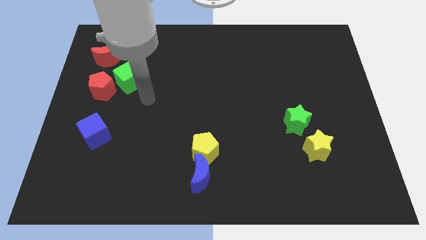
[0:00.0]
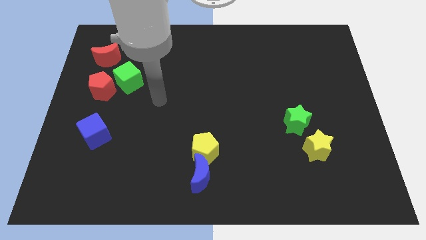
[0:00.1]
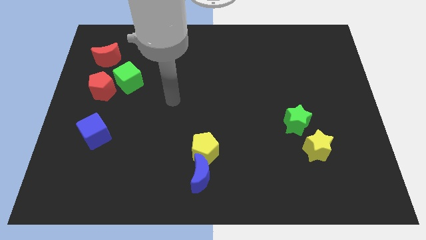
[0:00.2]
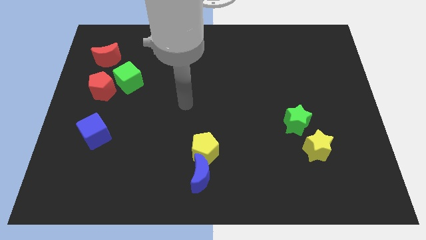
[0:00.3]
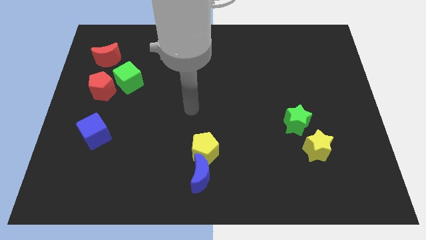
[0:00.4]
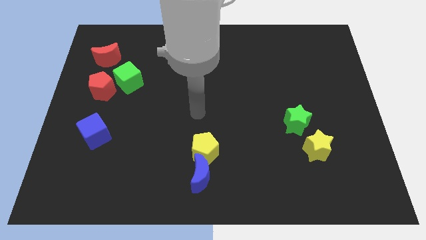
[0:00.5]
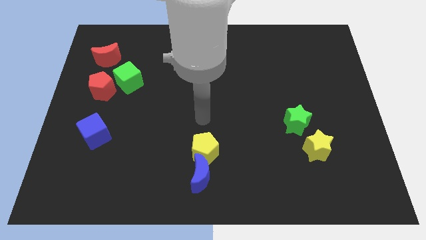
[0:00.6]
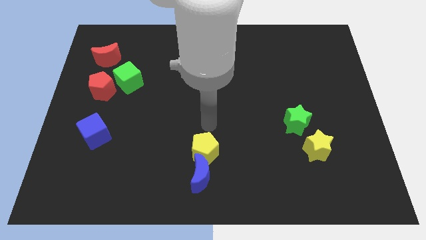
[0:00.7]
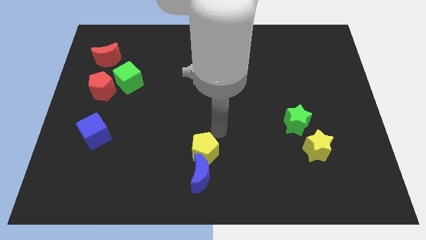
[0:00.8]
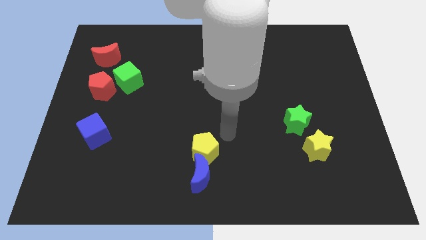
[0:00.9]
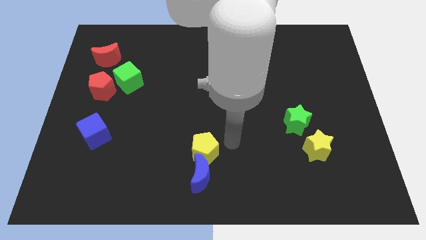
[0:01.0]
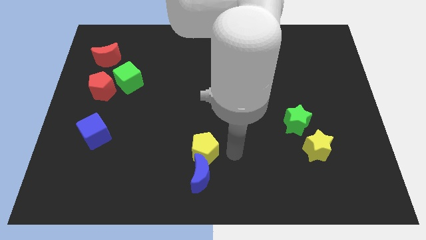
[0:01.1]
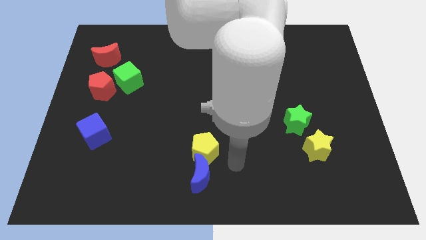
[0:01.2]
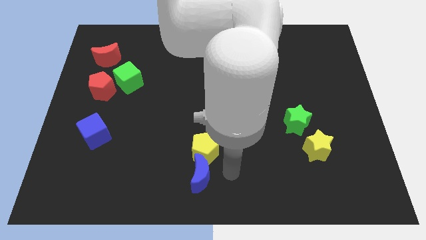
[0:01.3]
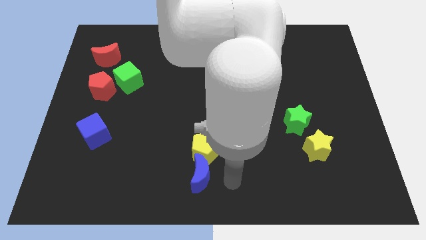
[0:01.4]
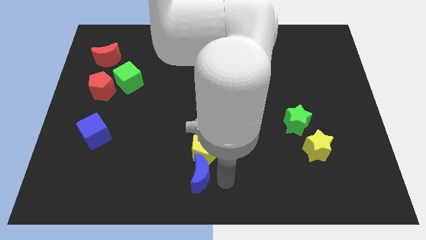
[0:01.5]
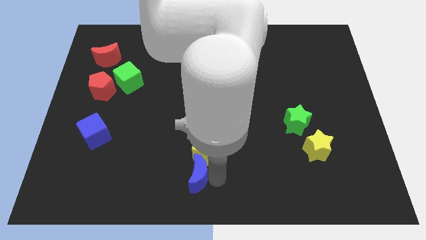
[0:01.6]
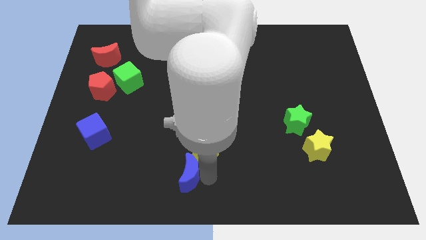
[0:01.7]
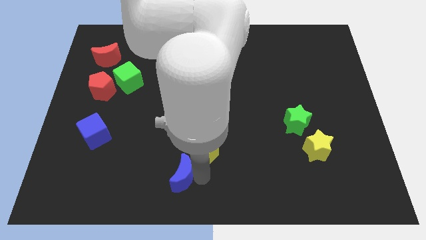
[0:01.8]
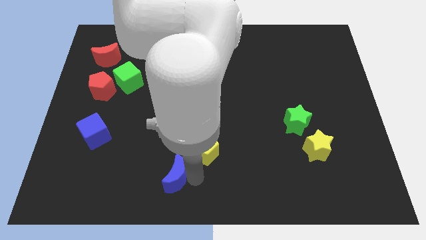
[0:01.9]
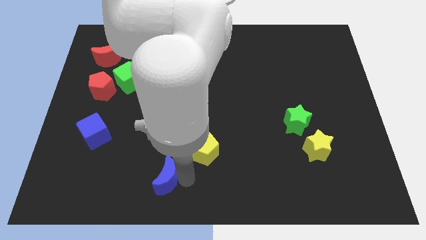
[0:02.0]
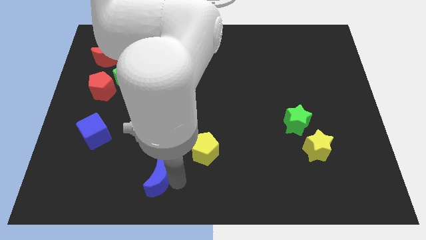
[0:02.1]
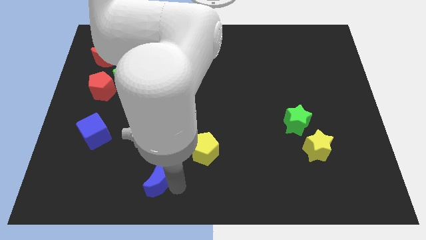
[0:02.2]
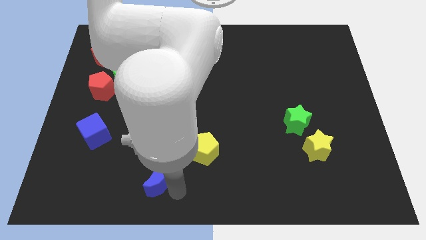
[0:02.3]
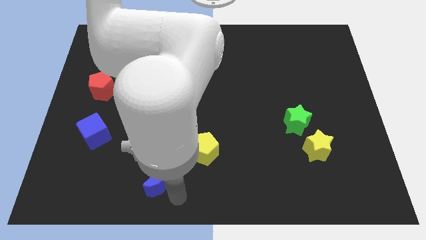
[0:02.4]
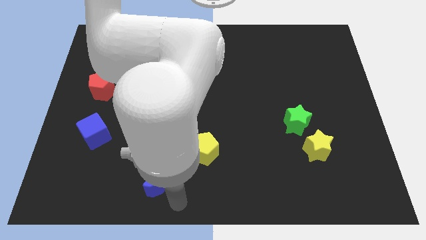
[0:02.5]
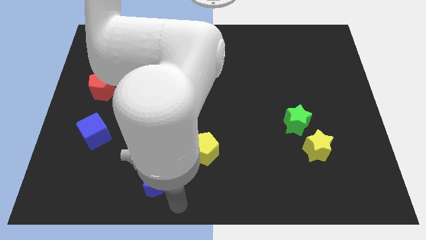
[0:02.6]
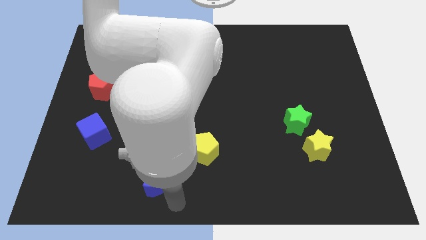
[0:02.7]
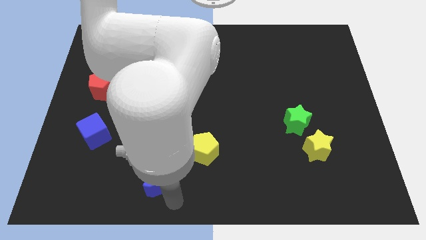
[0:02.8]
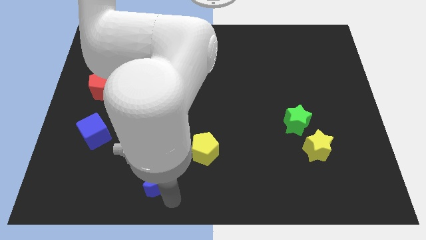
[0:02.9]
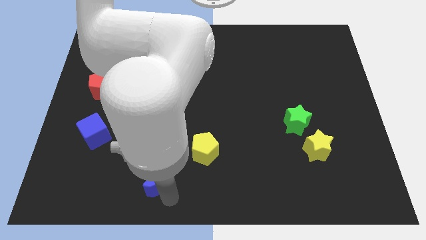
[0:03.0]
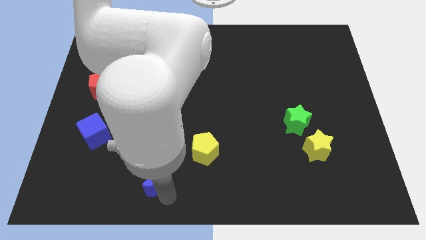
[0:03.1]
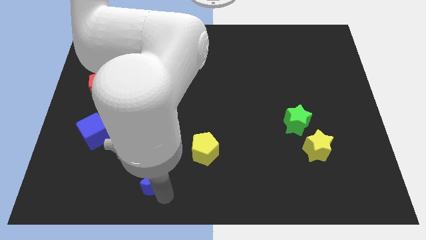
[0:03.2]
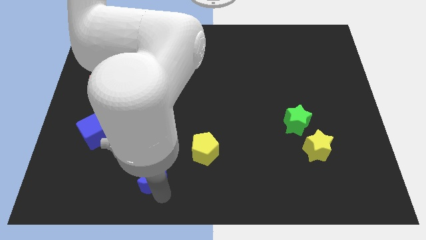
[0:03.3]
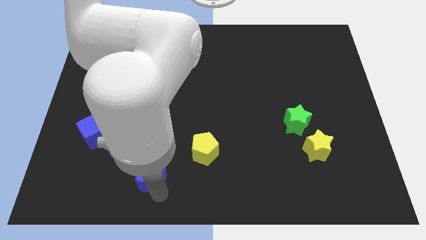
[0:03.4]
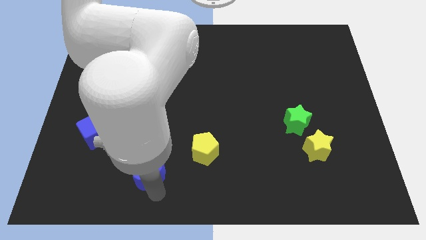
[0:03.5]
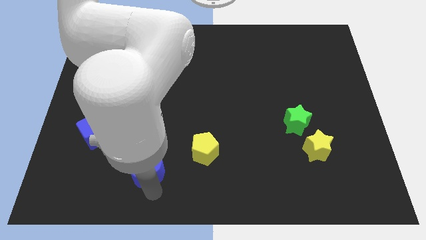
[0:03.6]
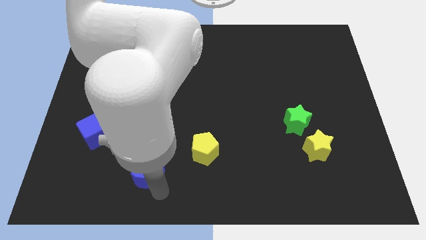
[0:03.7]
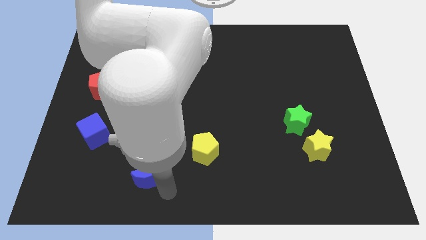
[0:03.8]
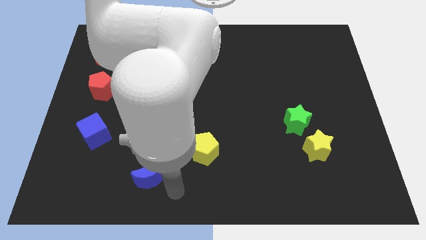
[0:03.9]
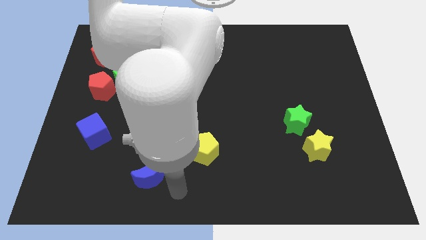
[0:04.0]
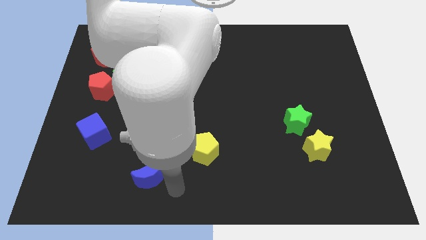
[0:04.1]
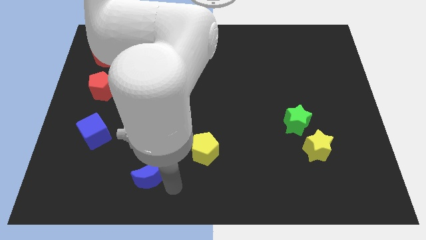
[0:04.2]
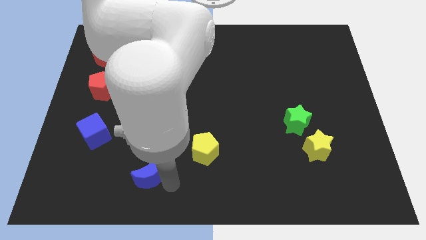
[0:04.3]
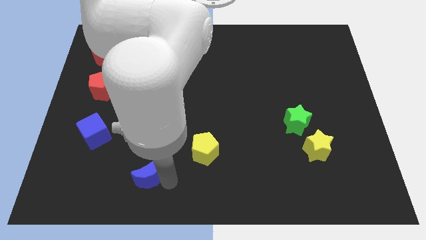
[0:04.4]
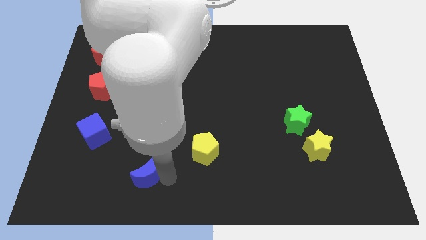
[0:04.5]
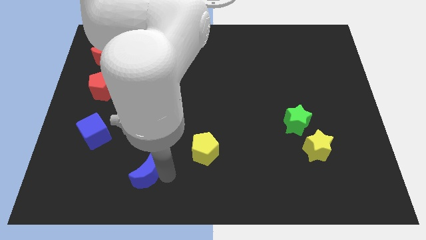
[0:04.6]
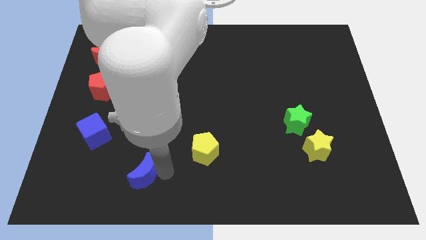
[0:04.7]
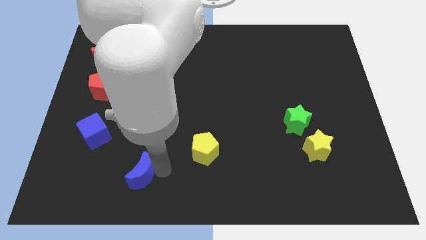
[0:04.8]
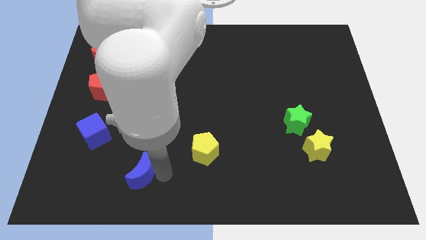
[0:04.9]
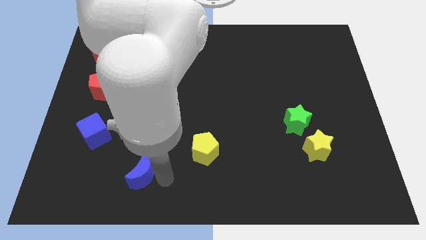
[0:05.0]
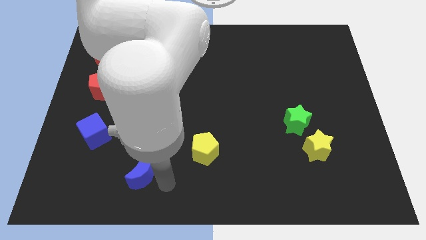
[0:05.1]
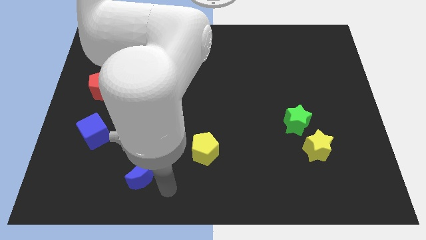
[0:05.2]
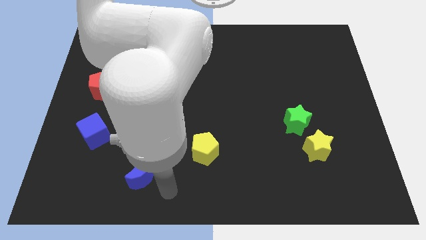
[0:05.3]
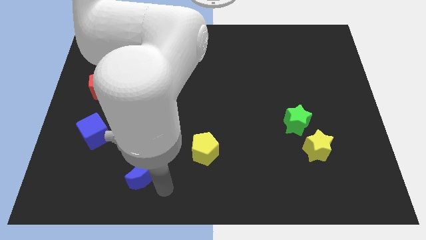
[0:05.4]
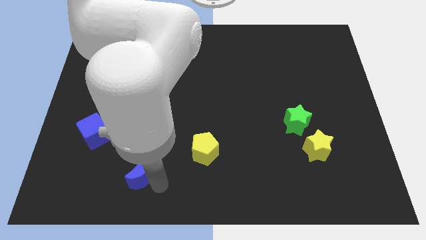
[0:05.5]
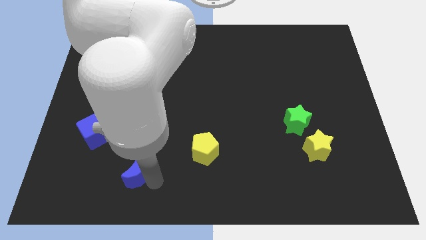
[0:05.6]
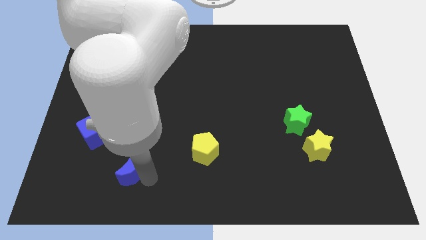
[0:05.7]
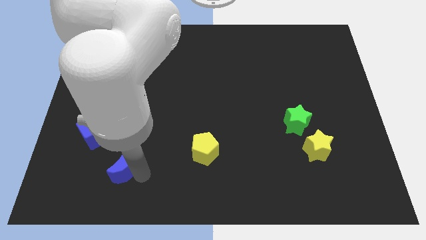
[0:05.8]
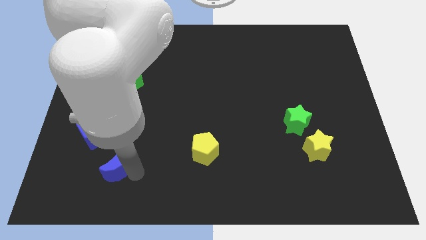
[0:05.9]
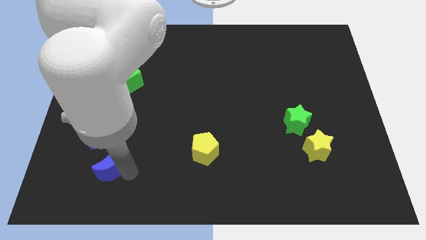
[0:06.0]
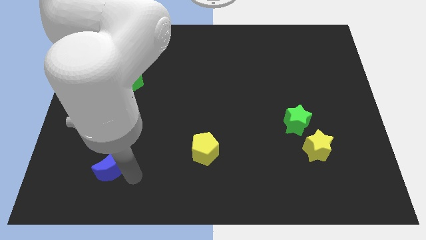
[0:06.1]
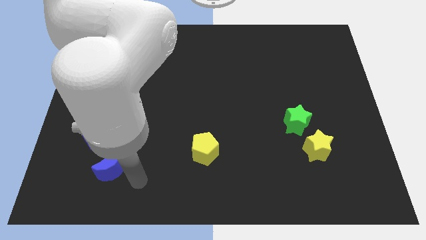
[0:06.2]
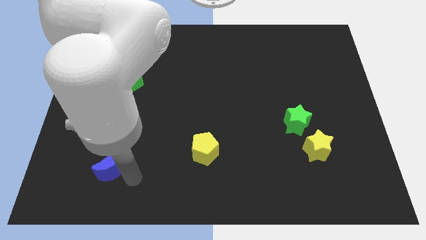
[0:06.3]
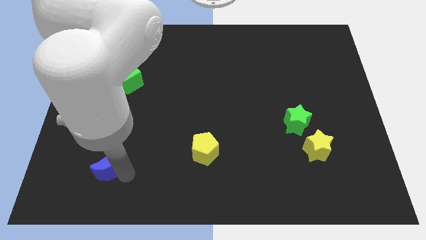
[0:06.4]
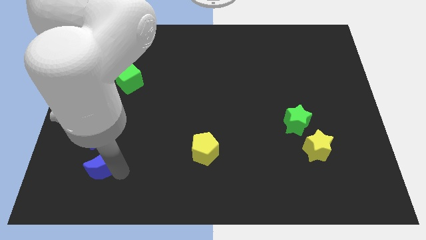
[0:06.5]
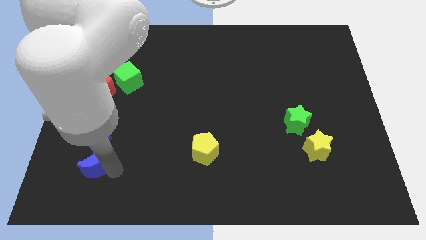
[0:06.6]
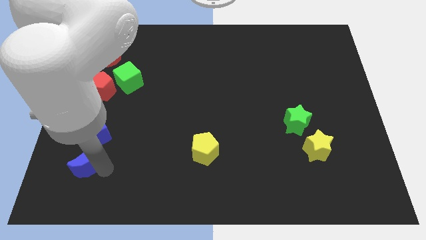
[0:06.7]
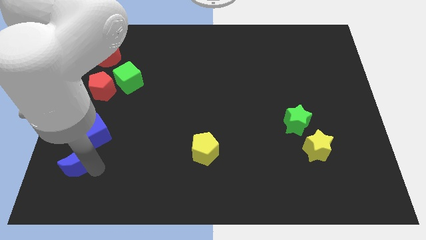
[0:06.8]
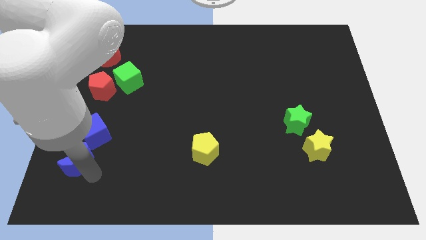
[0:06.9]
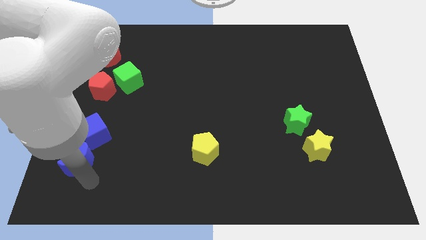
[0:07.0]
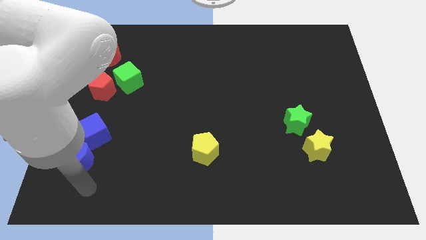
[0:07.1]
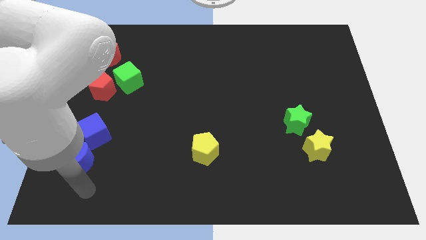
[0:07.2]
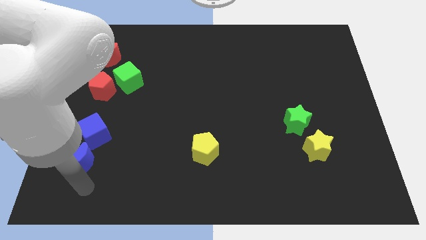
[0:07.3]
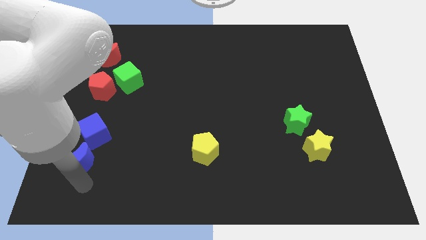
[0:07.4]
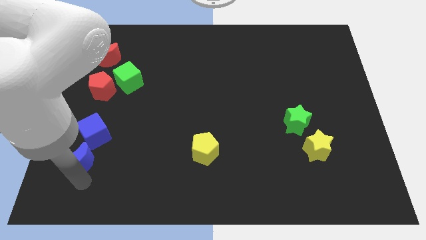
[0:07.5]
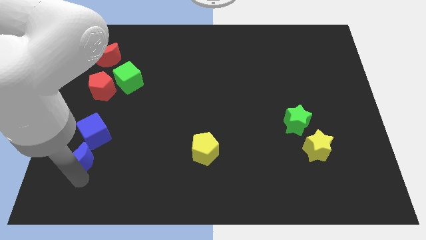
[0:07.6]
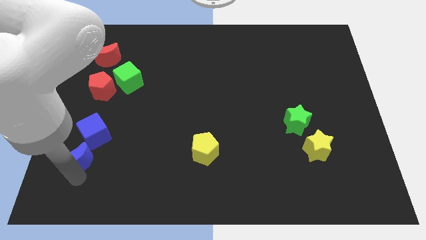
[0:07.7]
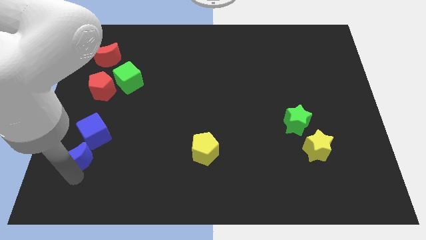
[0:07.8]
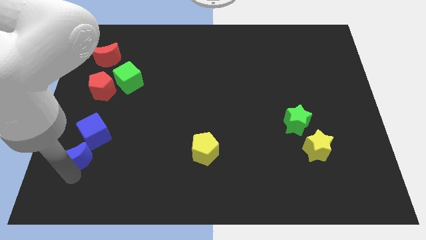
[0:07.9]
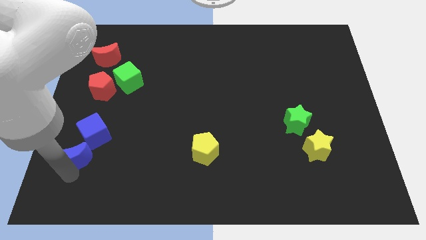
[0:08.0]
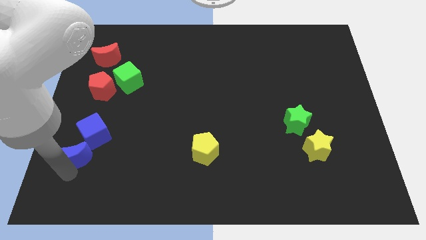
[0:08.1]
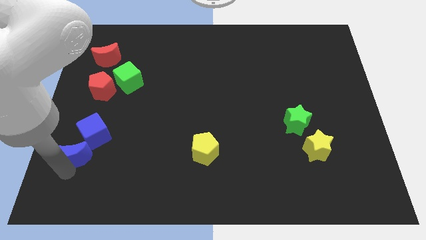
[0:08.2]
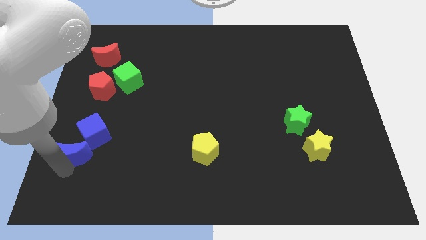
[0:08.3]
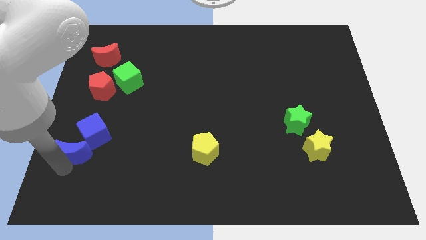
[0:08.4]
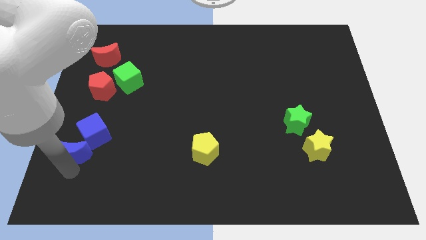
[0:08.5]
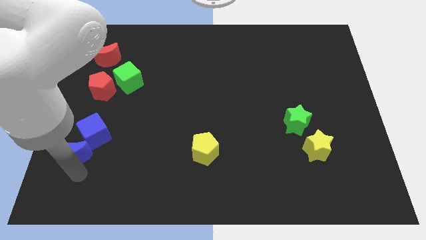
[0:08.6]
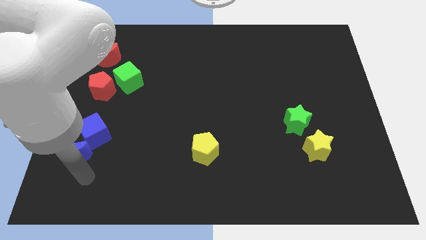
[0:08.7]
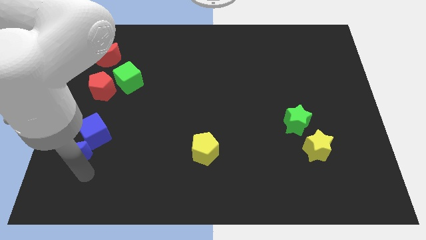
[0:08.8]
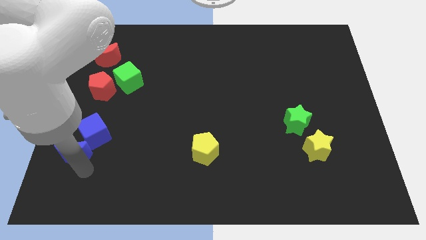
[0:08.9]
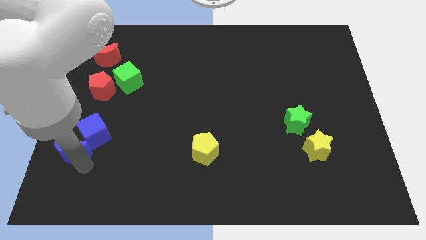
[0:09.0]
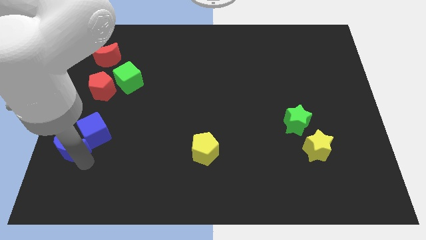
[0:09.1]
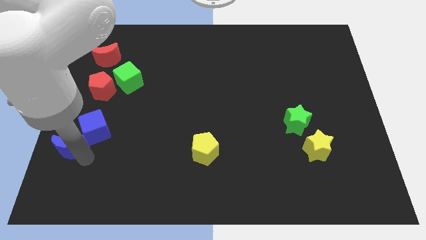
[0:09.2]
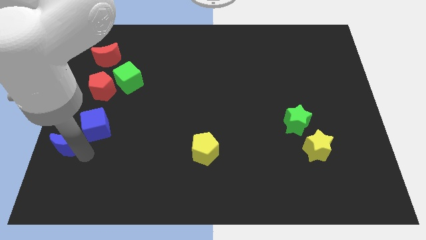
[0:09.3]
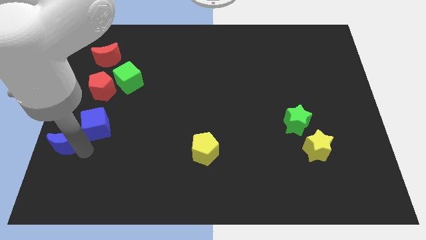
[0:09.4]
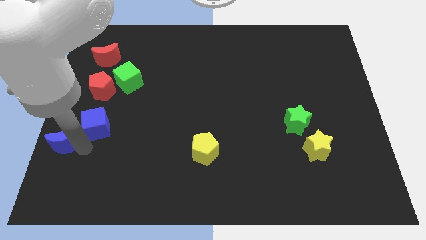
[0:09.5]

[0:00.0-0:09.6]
move the blue moon to the left side
